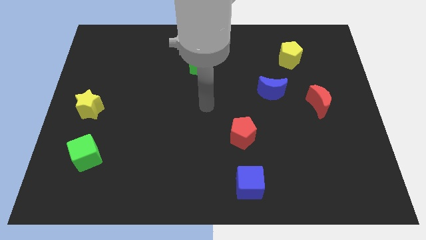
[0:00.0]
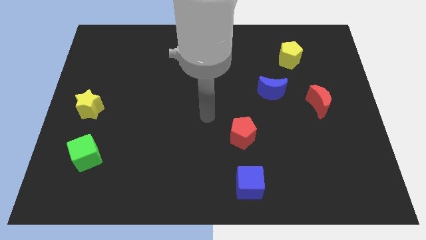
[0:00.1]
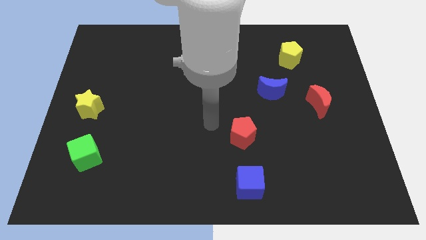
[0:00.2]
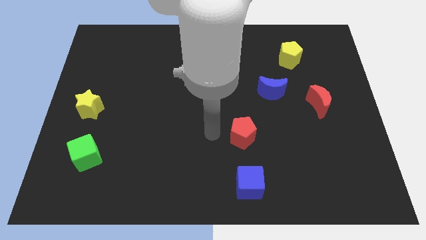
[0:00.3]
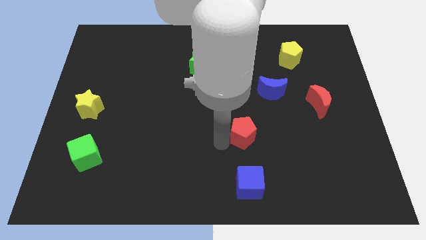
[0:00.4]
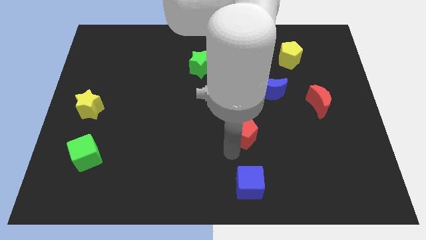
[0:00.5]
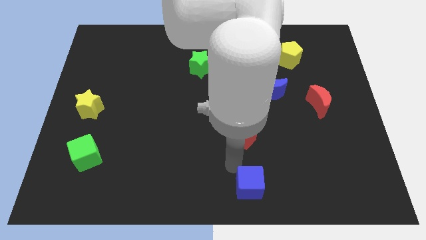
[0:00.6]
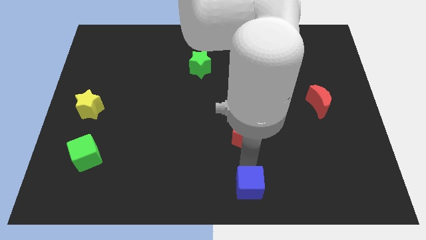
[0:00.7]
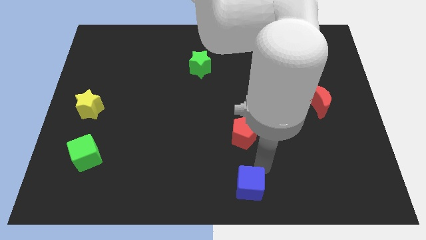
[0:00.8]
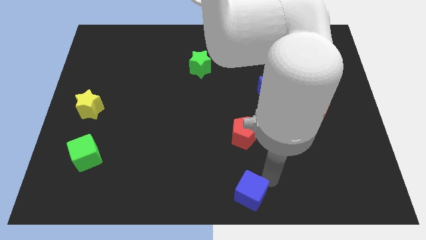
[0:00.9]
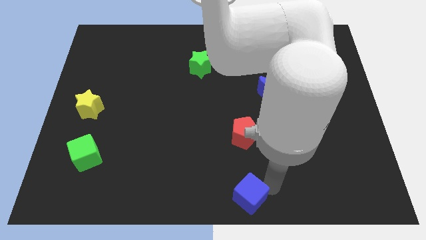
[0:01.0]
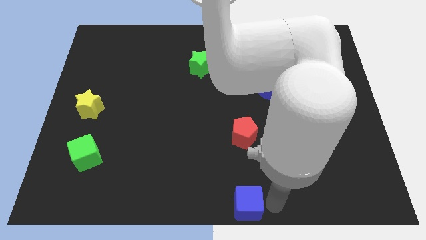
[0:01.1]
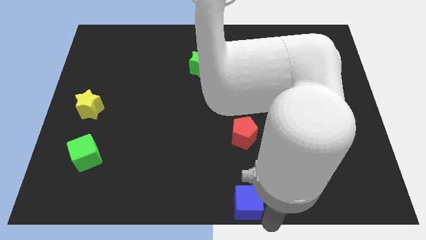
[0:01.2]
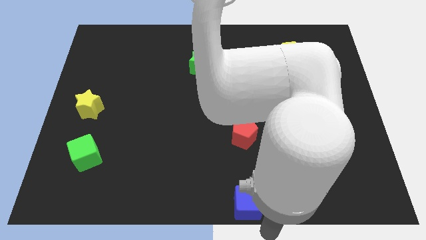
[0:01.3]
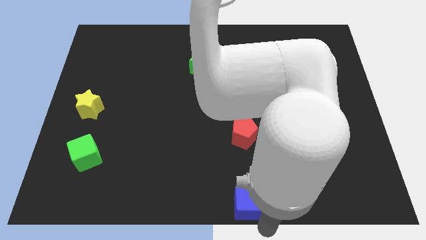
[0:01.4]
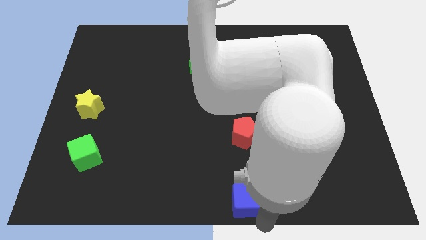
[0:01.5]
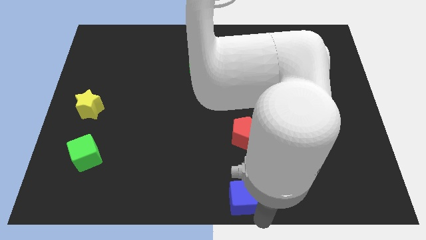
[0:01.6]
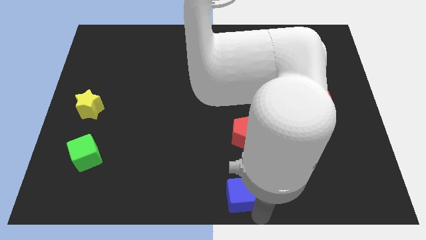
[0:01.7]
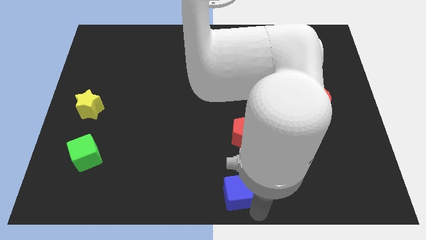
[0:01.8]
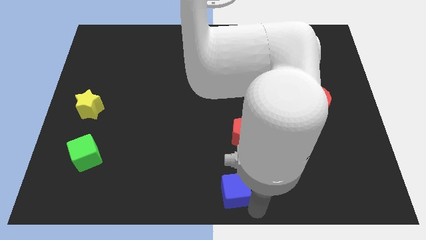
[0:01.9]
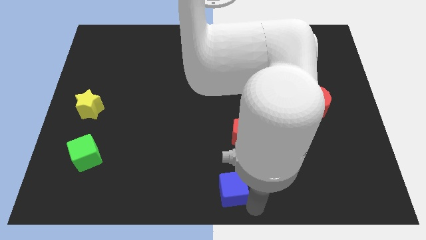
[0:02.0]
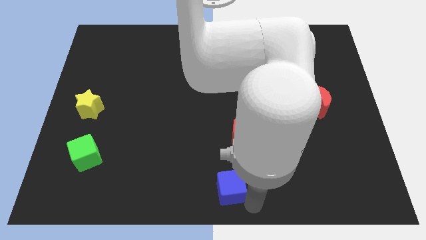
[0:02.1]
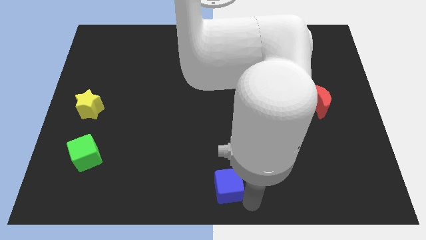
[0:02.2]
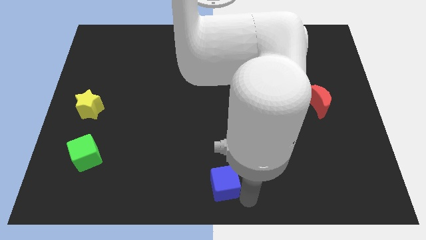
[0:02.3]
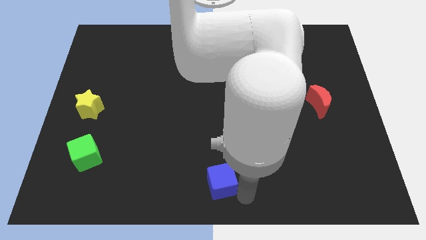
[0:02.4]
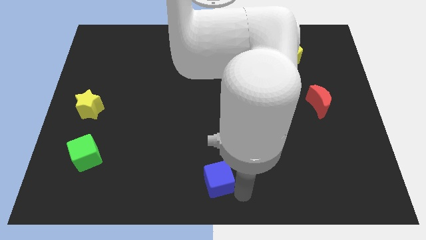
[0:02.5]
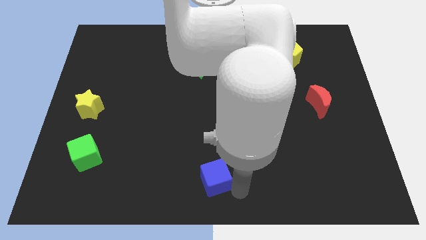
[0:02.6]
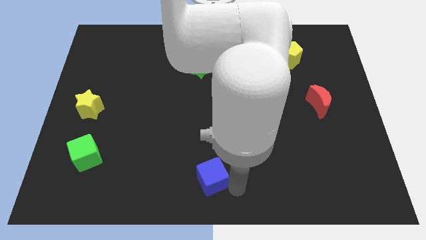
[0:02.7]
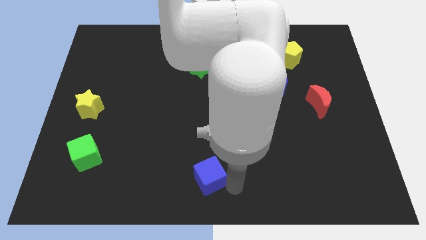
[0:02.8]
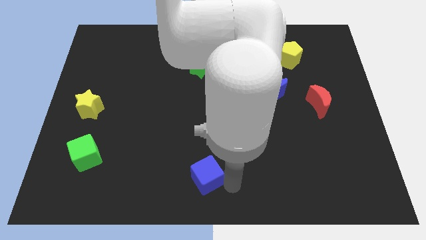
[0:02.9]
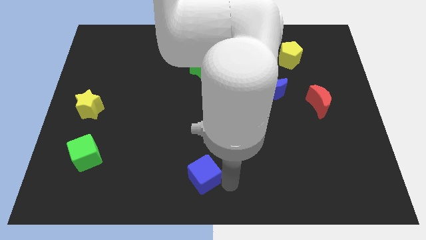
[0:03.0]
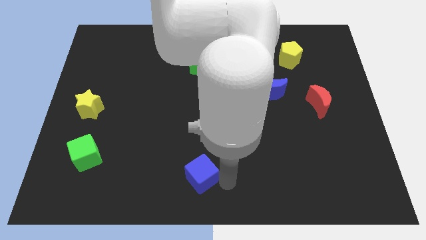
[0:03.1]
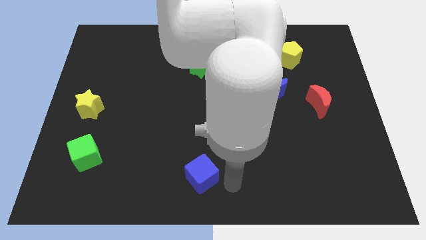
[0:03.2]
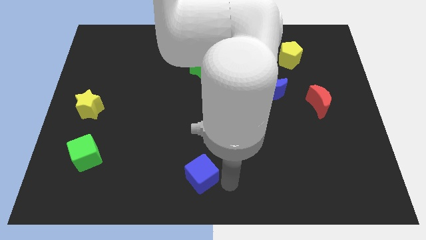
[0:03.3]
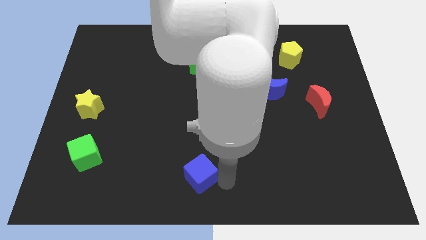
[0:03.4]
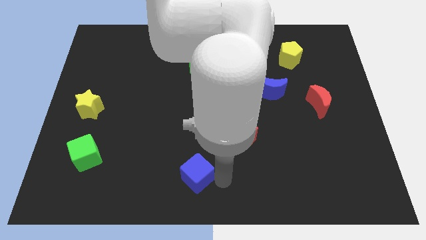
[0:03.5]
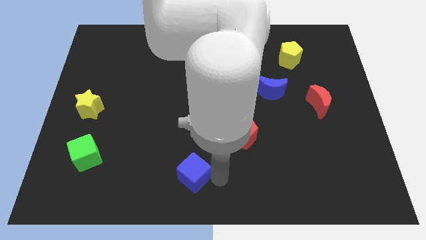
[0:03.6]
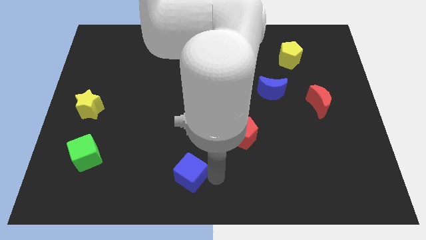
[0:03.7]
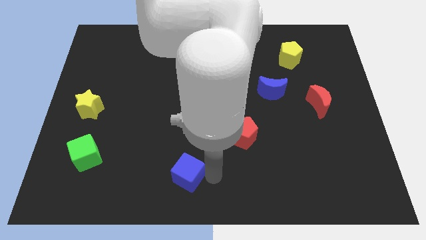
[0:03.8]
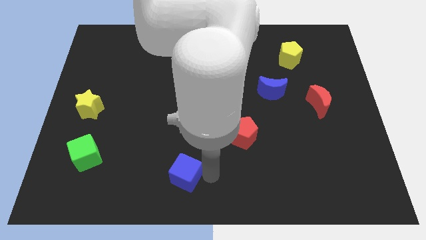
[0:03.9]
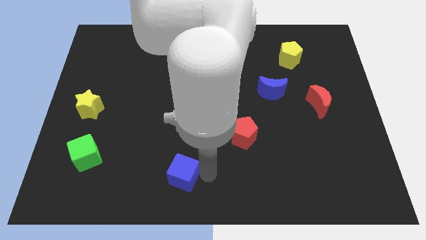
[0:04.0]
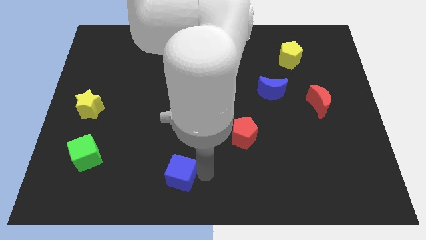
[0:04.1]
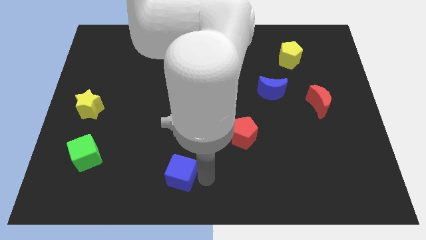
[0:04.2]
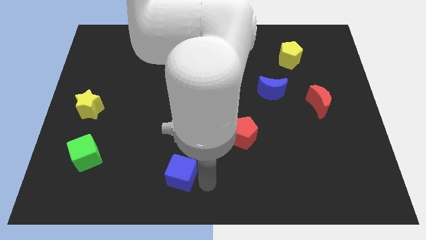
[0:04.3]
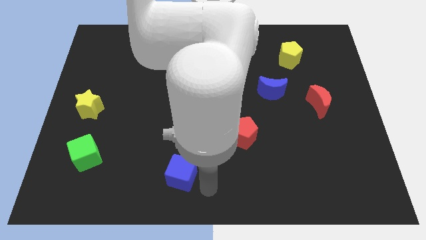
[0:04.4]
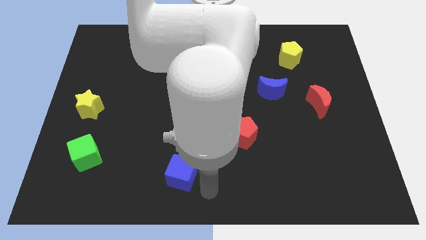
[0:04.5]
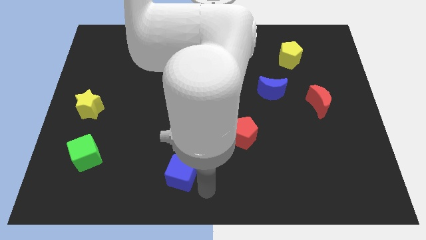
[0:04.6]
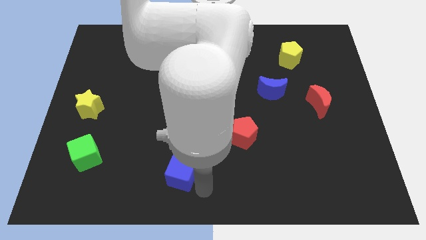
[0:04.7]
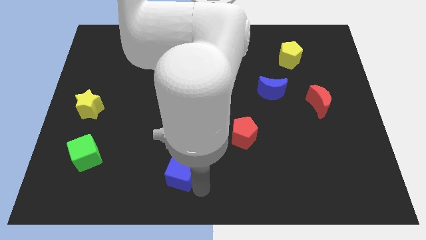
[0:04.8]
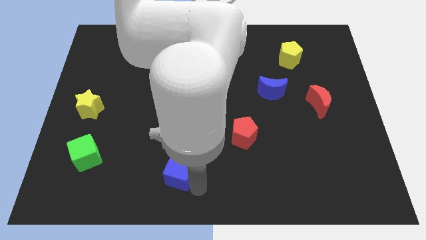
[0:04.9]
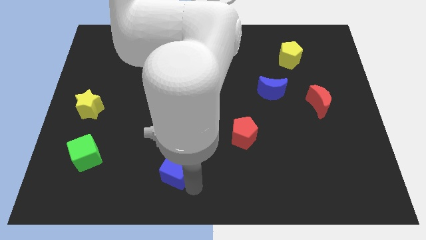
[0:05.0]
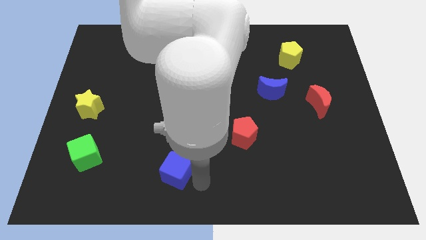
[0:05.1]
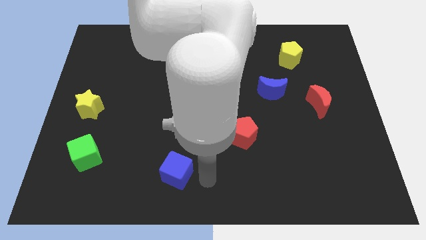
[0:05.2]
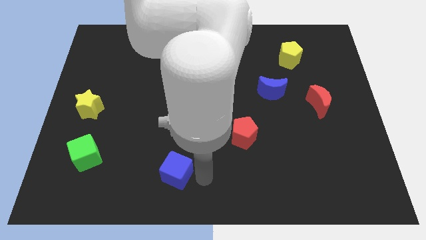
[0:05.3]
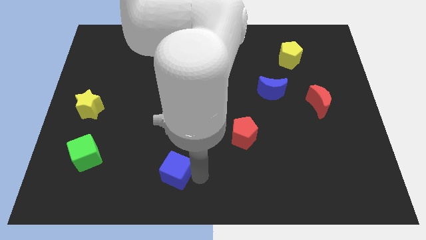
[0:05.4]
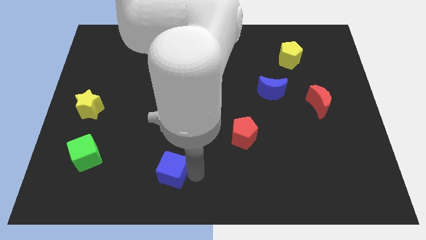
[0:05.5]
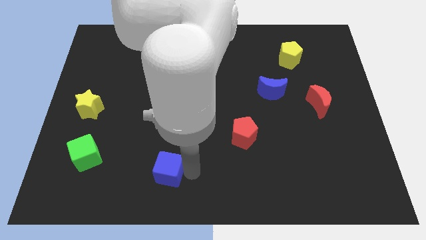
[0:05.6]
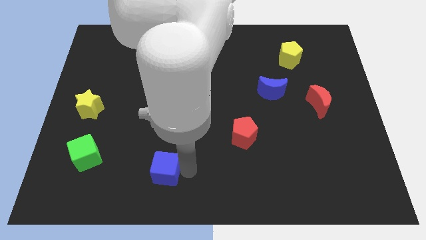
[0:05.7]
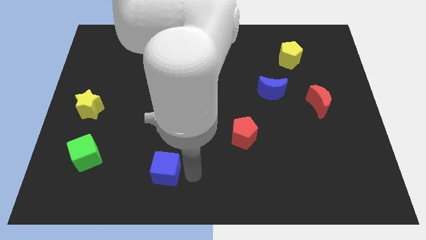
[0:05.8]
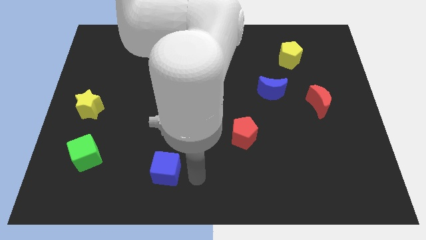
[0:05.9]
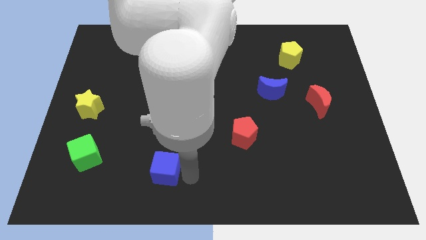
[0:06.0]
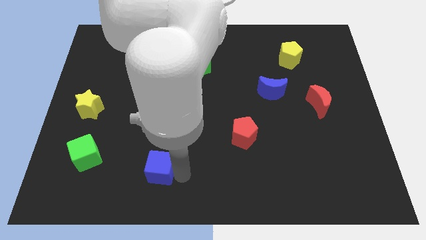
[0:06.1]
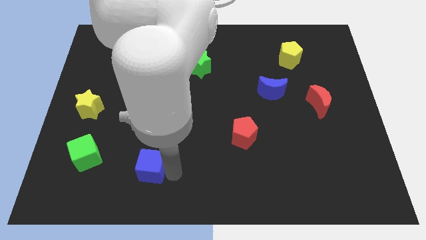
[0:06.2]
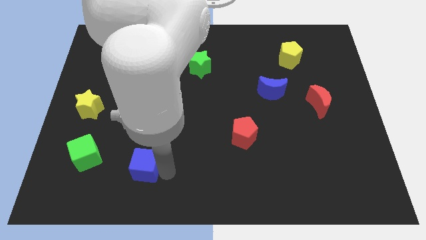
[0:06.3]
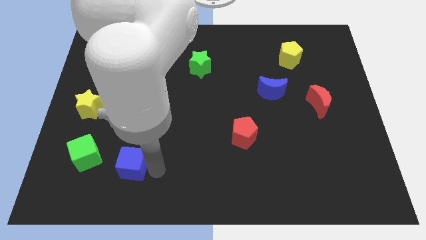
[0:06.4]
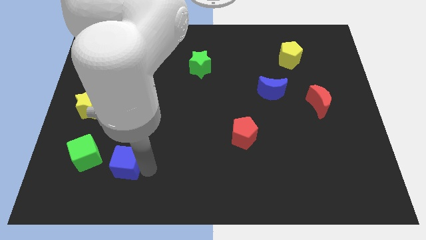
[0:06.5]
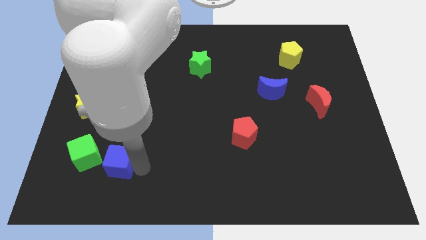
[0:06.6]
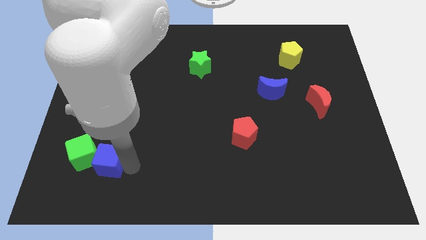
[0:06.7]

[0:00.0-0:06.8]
move the blue cube next to the green cube
